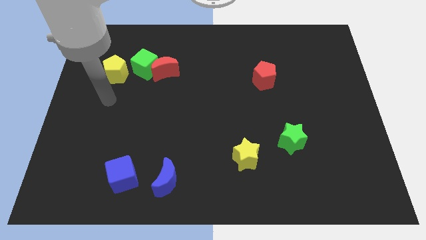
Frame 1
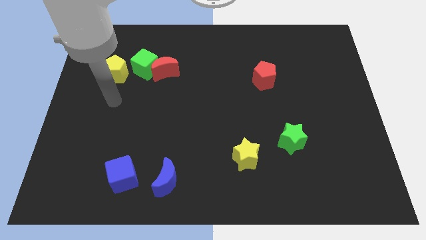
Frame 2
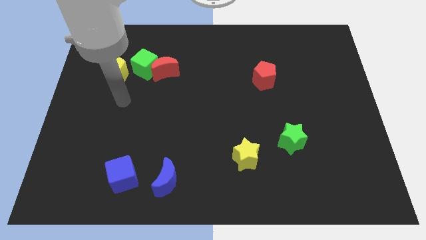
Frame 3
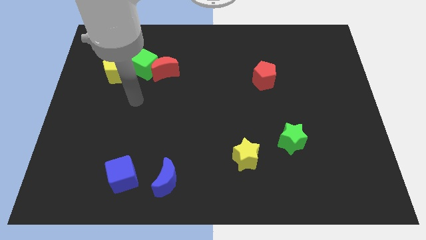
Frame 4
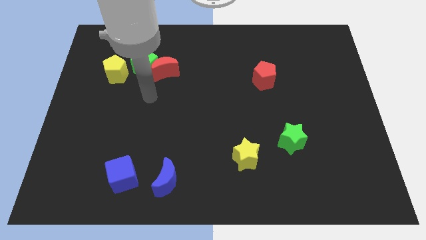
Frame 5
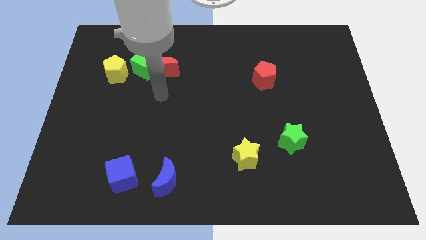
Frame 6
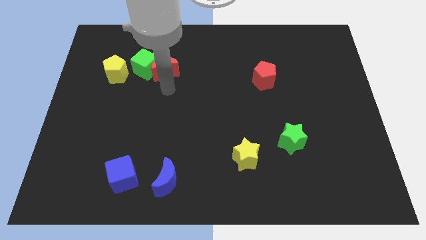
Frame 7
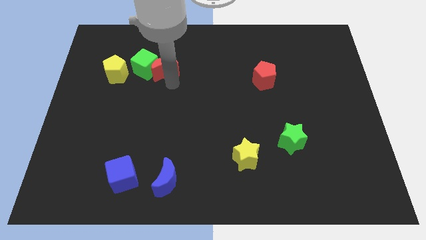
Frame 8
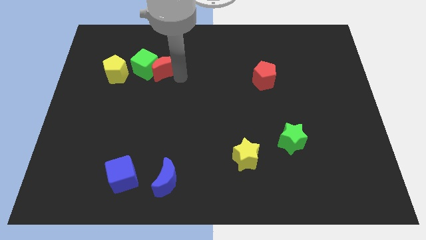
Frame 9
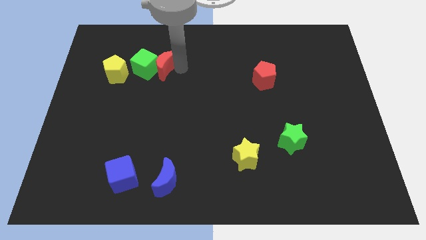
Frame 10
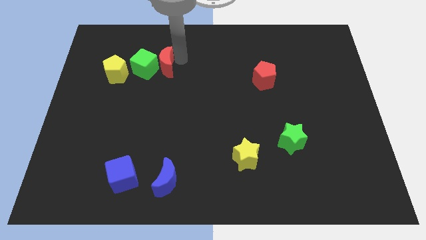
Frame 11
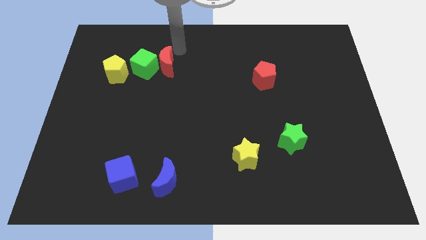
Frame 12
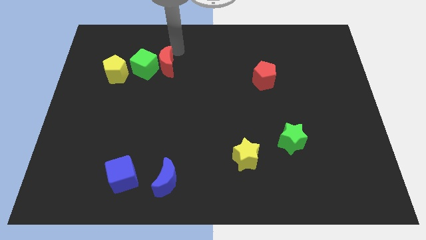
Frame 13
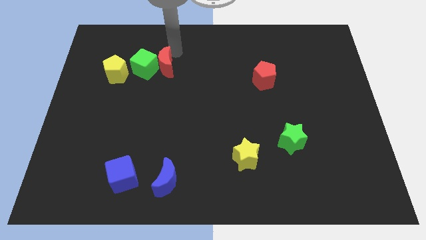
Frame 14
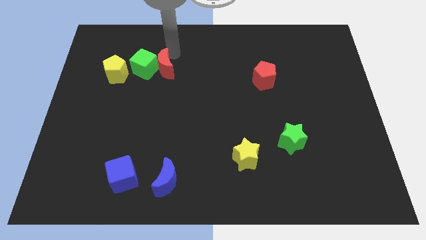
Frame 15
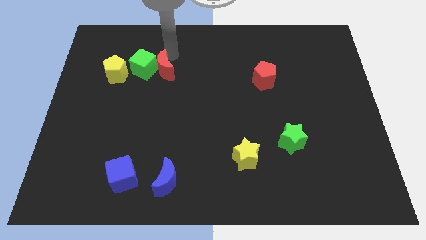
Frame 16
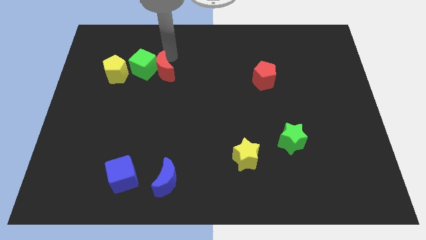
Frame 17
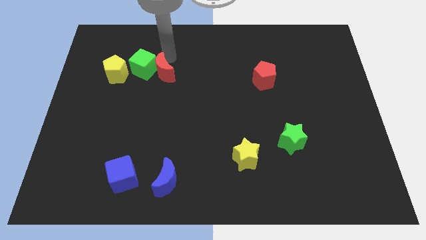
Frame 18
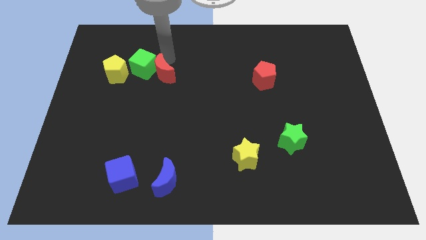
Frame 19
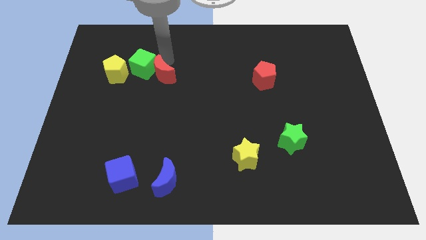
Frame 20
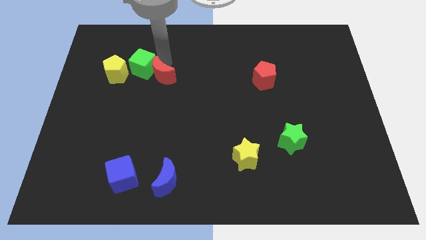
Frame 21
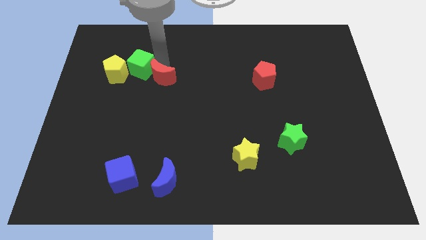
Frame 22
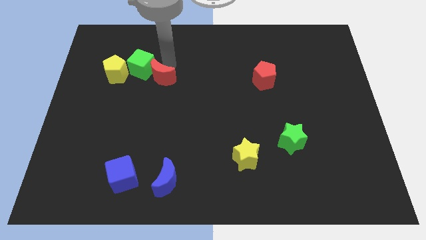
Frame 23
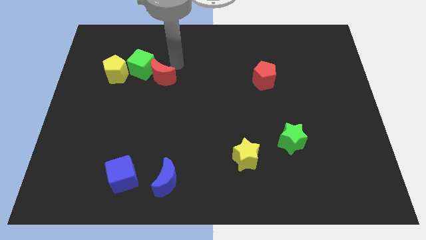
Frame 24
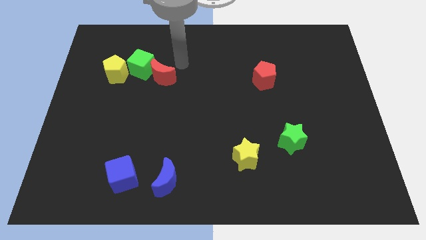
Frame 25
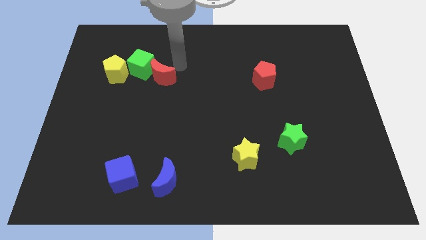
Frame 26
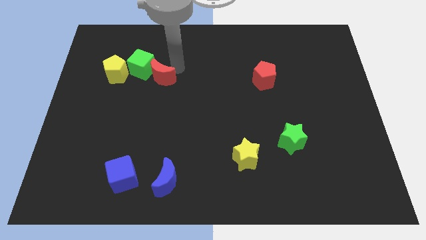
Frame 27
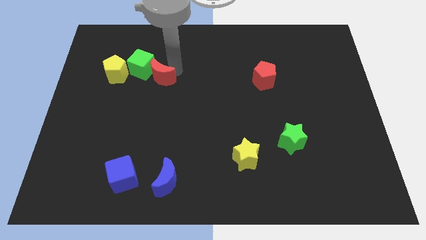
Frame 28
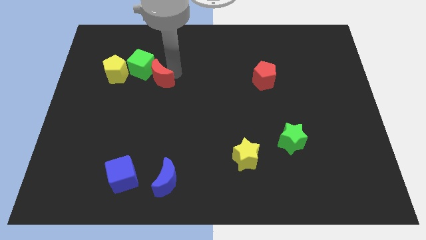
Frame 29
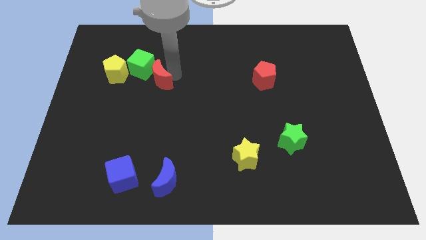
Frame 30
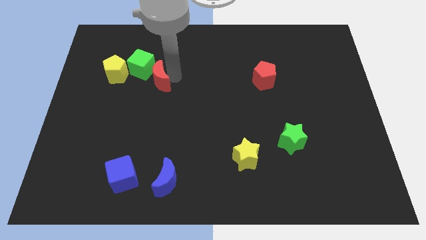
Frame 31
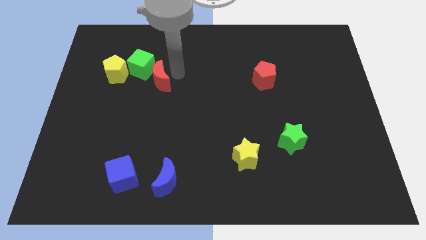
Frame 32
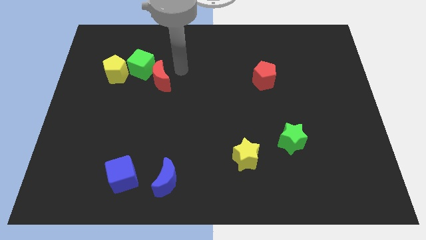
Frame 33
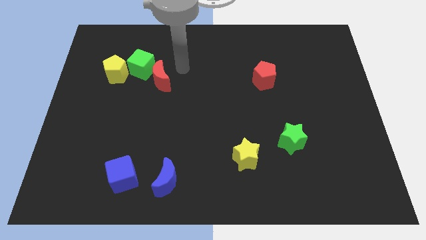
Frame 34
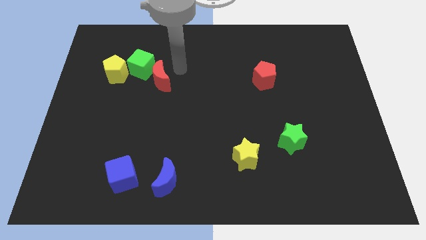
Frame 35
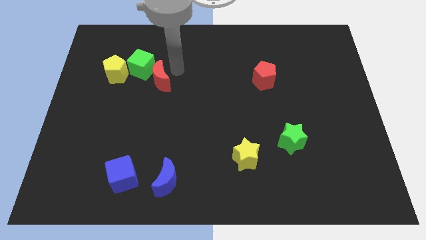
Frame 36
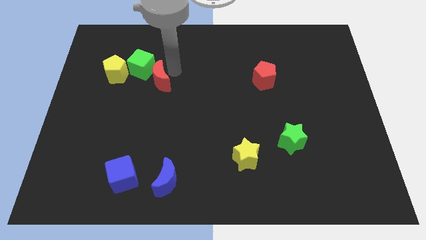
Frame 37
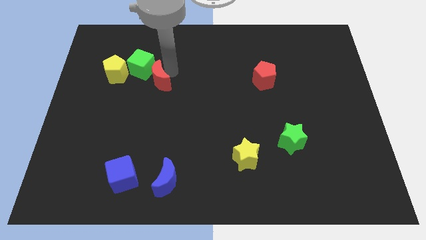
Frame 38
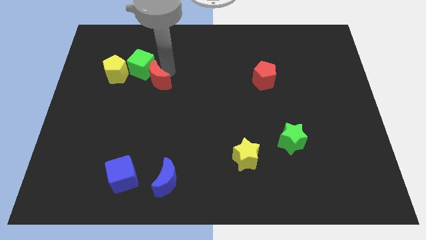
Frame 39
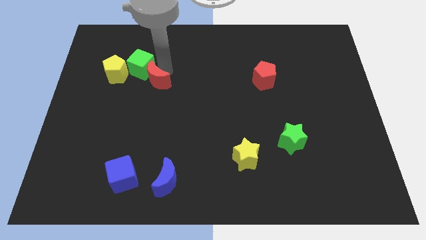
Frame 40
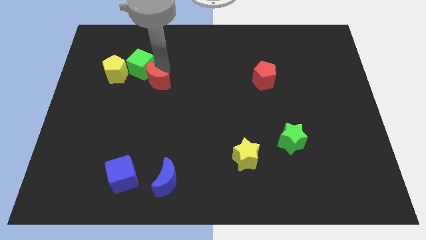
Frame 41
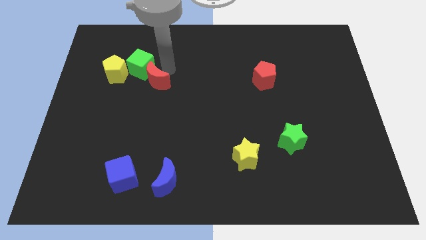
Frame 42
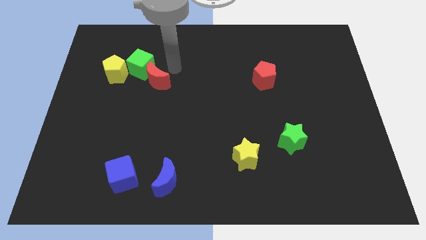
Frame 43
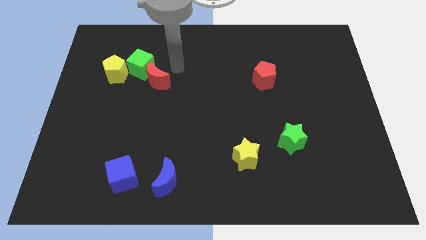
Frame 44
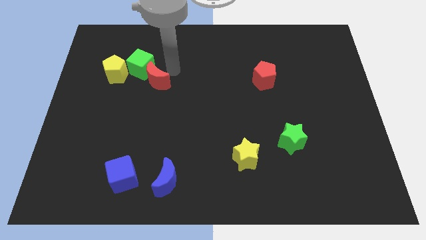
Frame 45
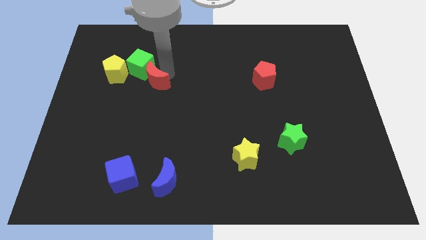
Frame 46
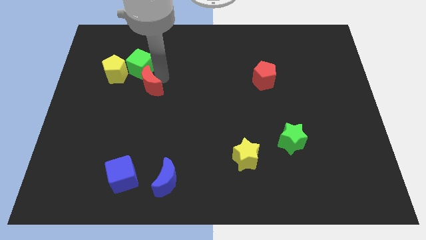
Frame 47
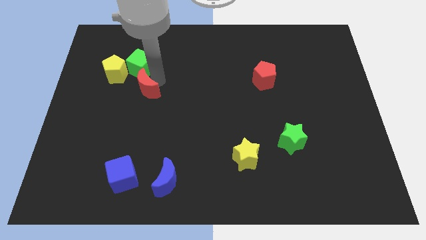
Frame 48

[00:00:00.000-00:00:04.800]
slide the red moon a little bit diagonally downwards and left

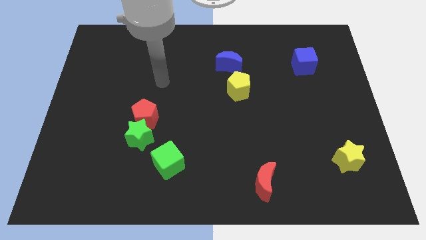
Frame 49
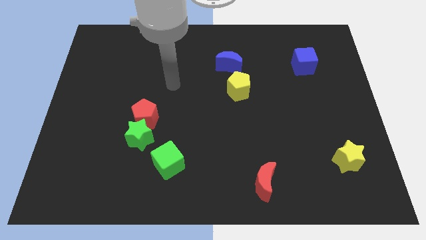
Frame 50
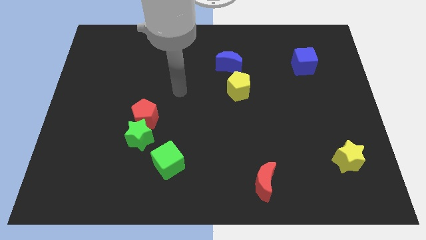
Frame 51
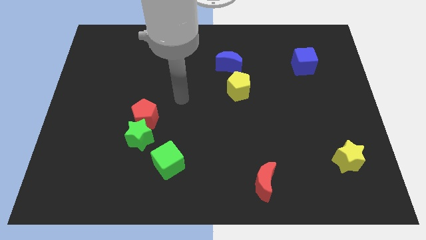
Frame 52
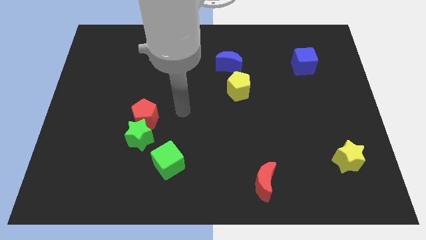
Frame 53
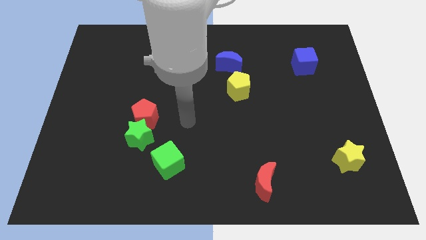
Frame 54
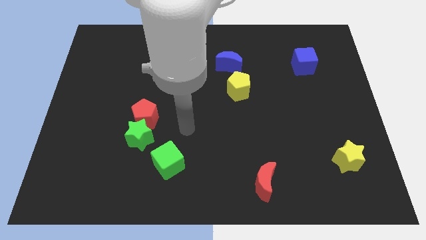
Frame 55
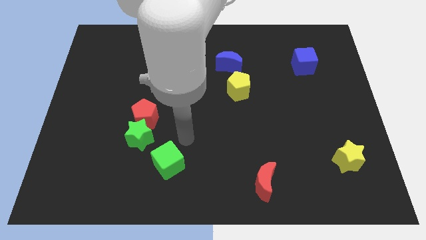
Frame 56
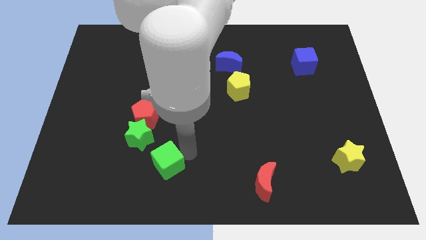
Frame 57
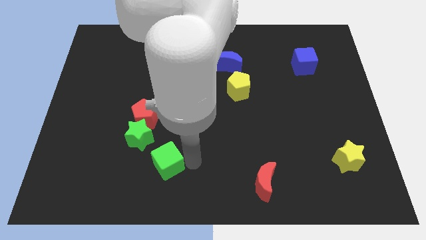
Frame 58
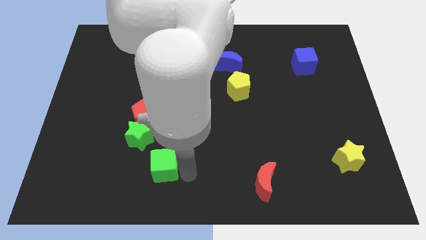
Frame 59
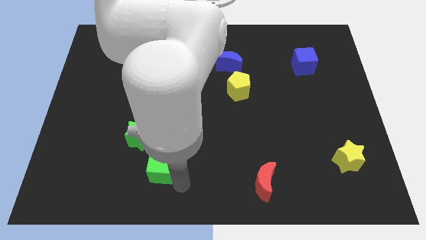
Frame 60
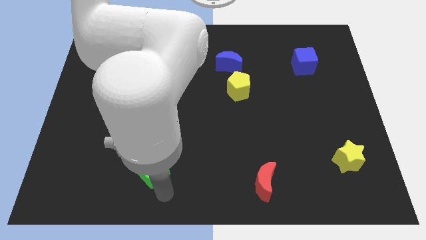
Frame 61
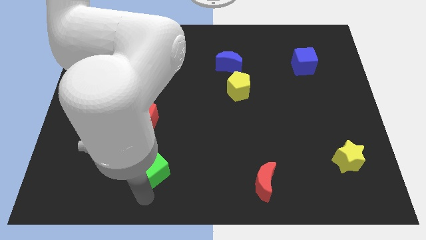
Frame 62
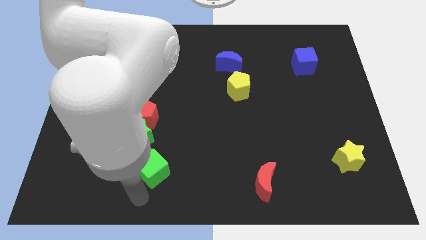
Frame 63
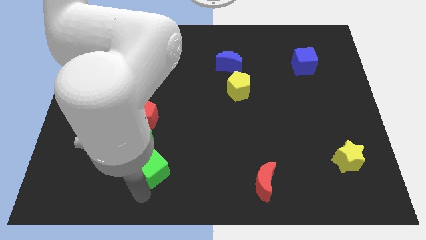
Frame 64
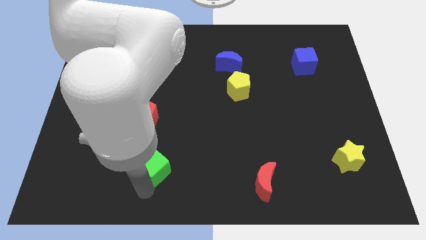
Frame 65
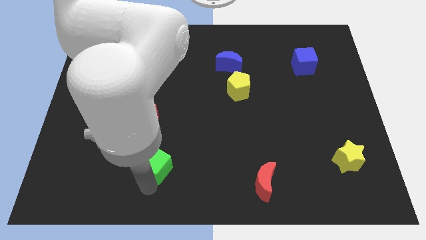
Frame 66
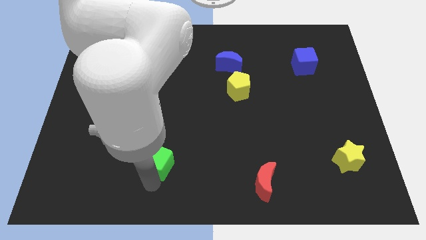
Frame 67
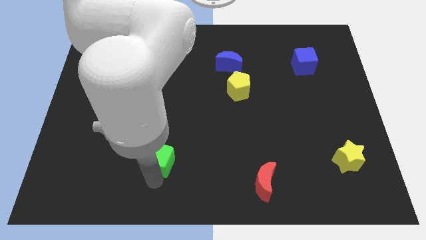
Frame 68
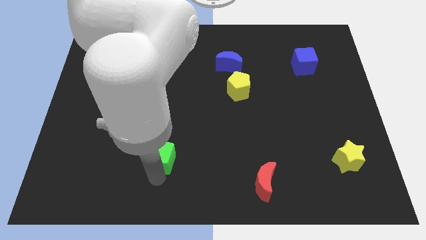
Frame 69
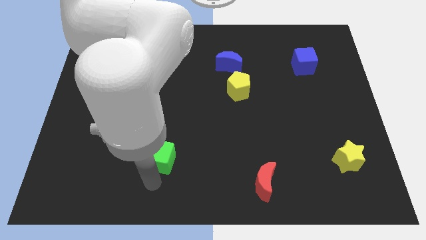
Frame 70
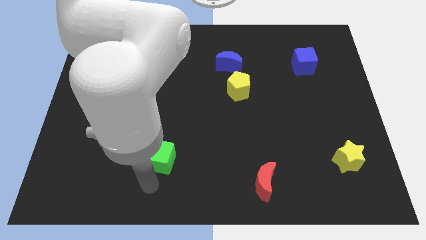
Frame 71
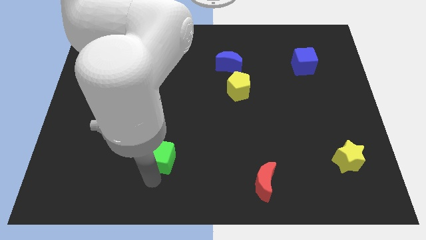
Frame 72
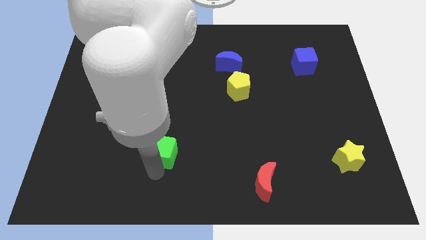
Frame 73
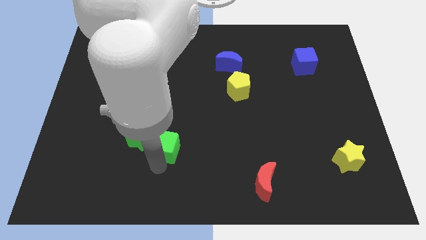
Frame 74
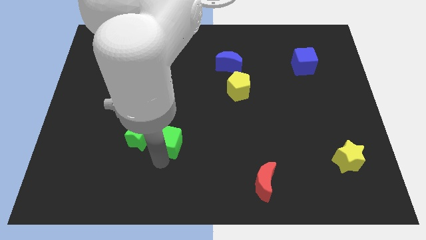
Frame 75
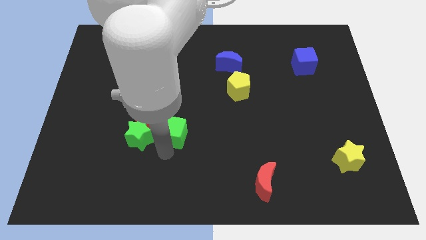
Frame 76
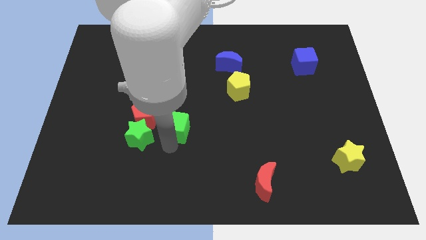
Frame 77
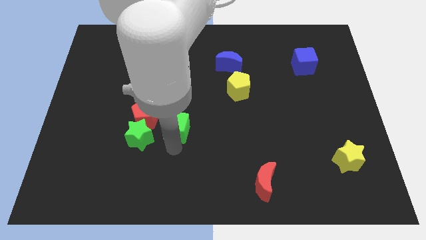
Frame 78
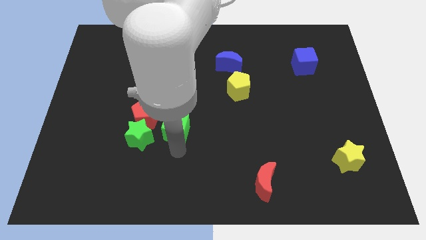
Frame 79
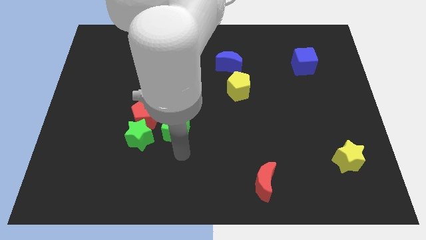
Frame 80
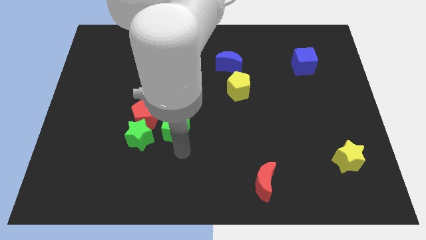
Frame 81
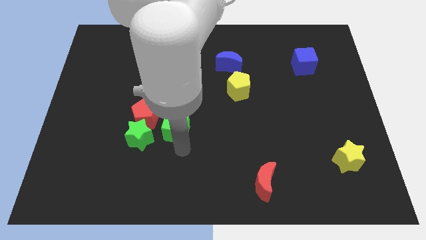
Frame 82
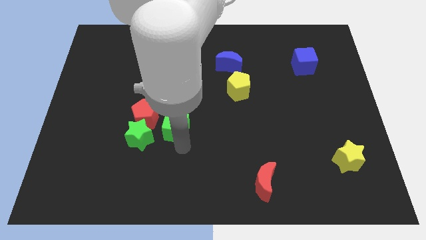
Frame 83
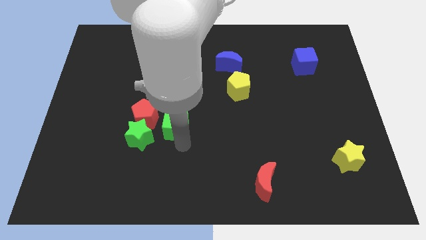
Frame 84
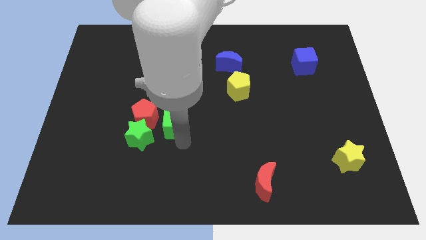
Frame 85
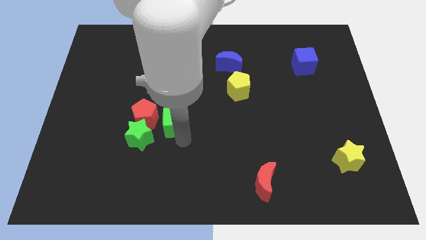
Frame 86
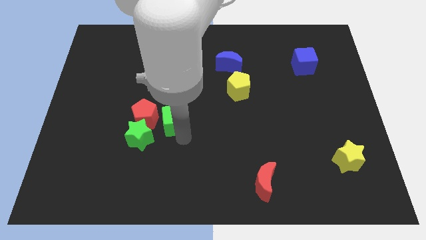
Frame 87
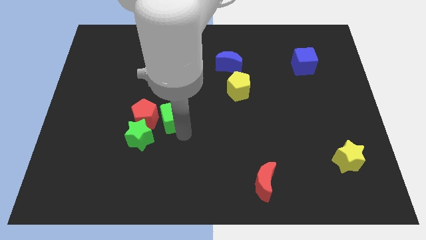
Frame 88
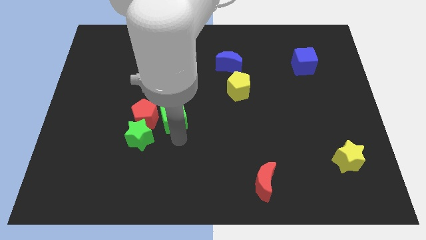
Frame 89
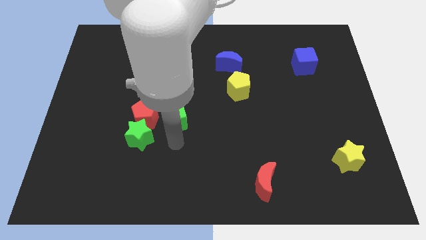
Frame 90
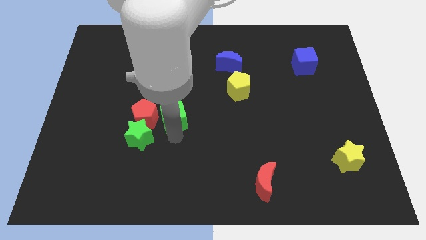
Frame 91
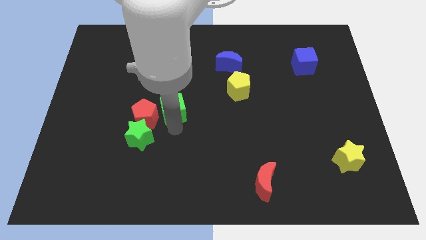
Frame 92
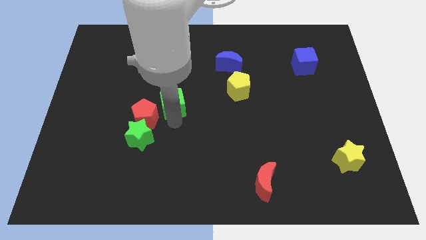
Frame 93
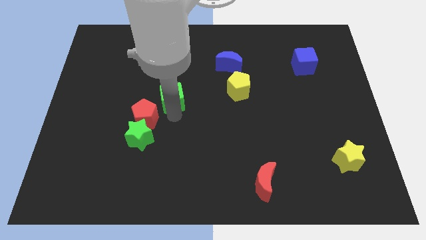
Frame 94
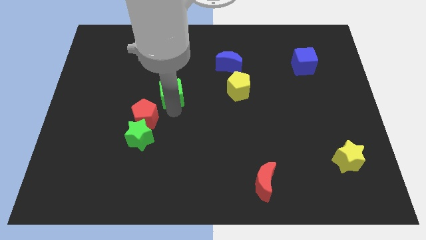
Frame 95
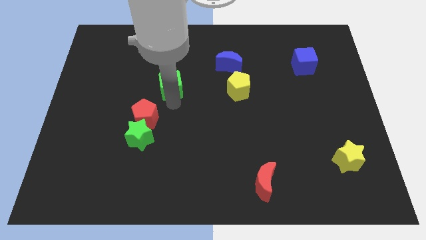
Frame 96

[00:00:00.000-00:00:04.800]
move the green cube upwards
